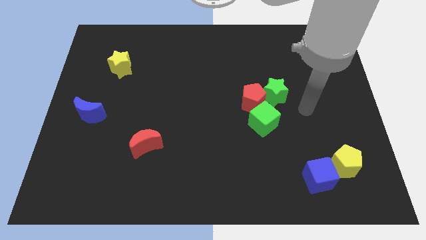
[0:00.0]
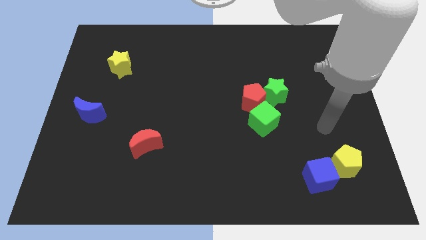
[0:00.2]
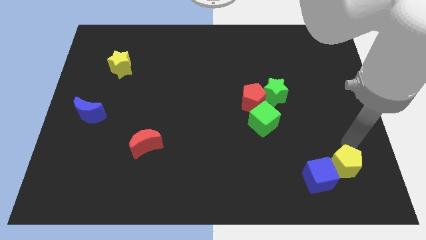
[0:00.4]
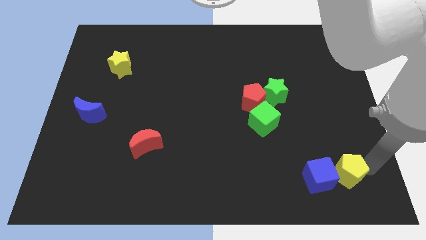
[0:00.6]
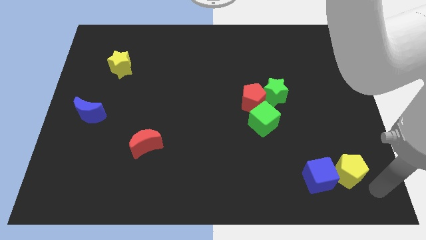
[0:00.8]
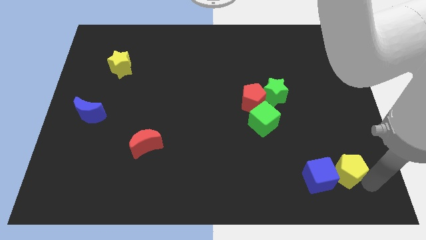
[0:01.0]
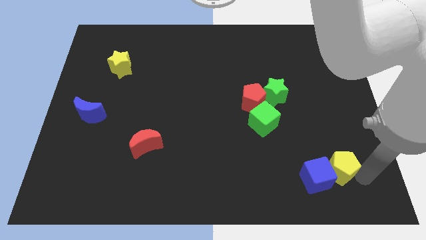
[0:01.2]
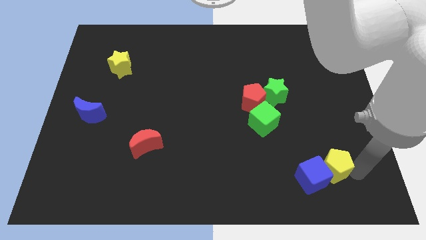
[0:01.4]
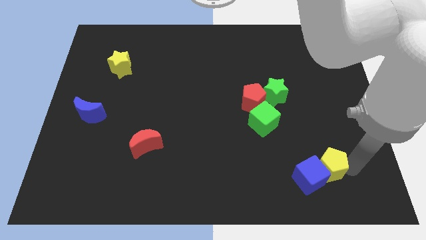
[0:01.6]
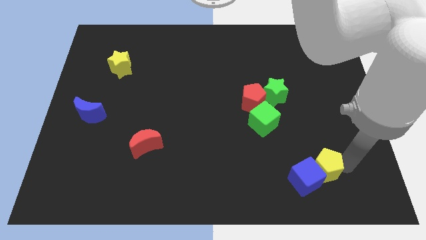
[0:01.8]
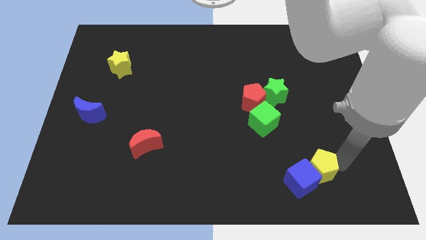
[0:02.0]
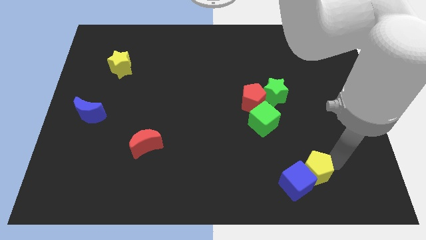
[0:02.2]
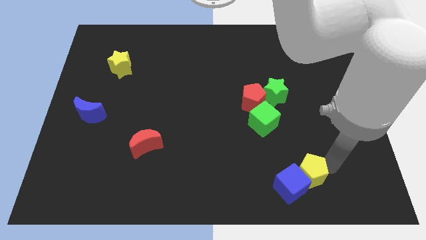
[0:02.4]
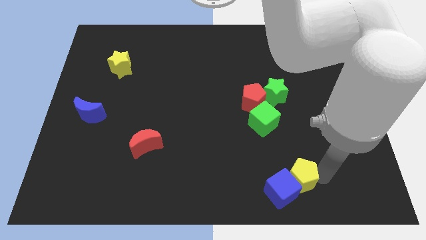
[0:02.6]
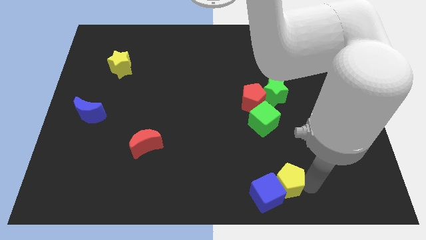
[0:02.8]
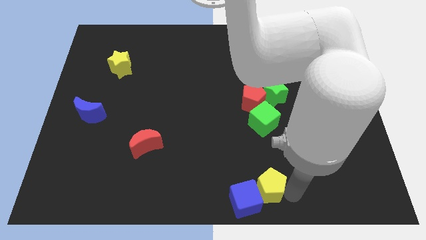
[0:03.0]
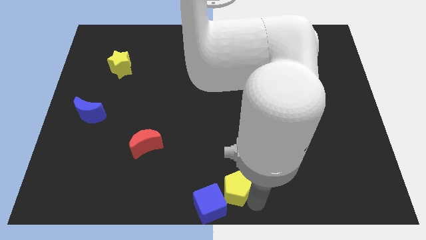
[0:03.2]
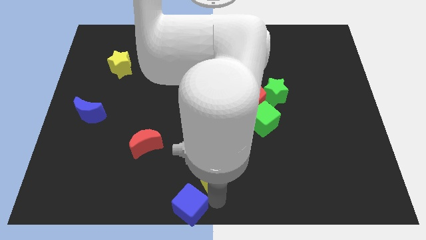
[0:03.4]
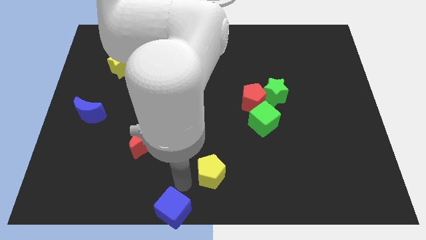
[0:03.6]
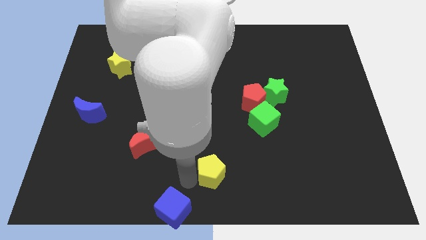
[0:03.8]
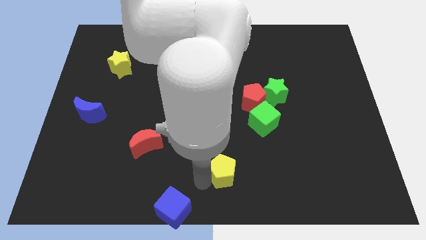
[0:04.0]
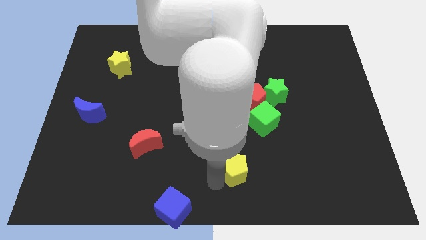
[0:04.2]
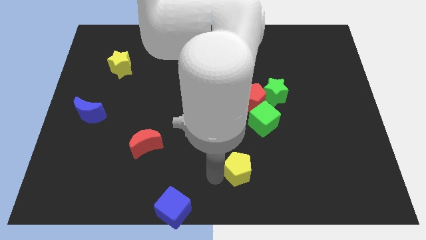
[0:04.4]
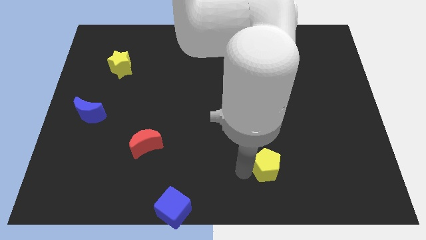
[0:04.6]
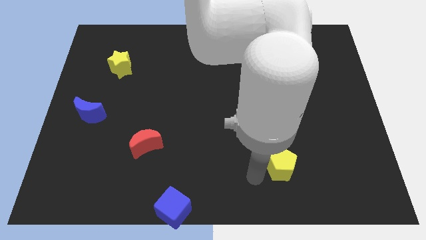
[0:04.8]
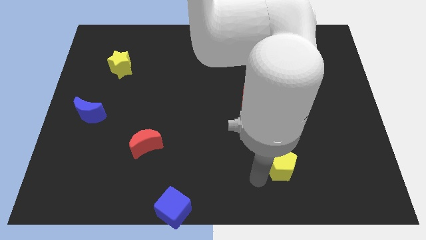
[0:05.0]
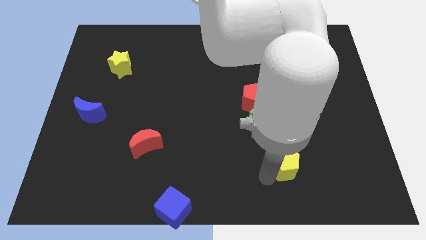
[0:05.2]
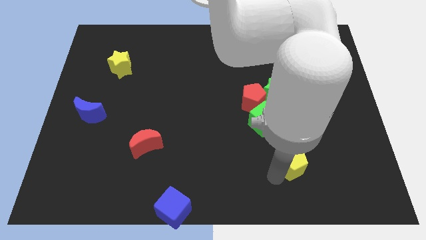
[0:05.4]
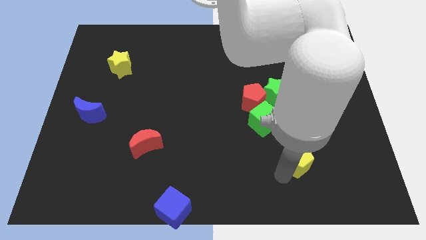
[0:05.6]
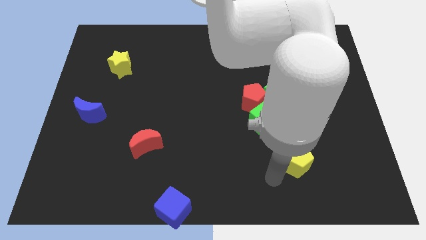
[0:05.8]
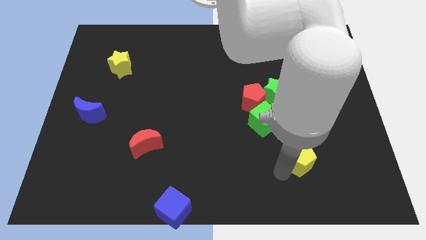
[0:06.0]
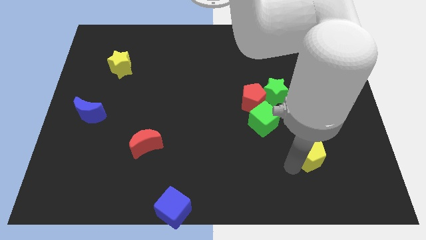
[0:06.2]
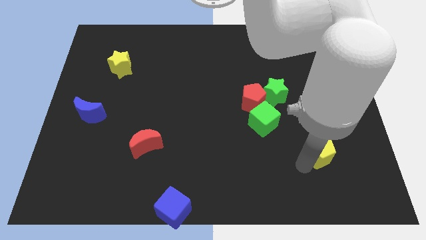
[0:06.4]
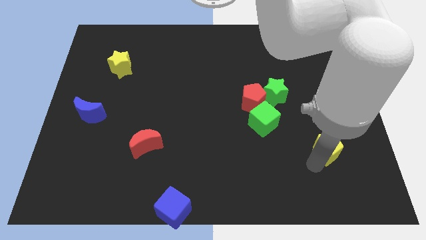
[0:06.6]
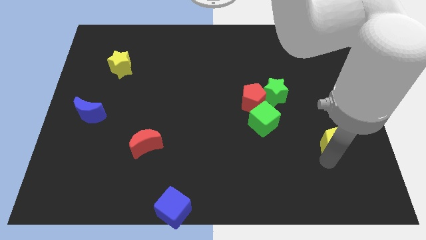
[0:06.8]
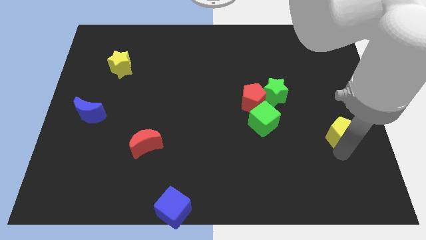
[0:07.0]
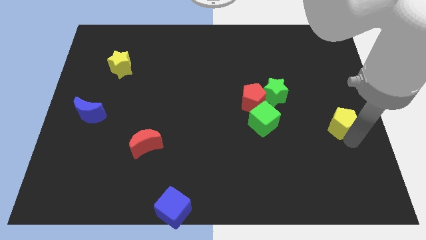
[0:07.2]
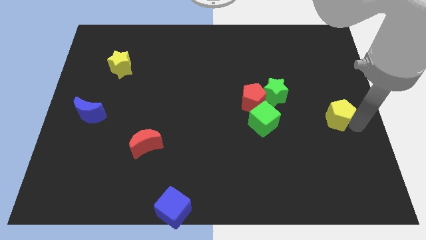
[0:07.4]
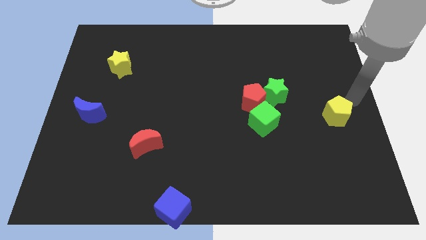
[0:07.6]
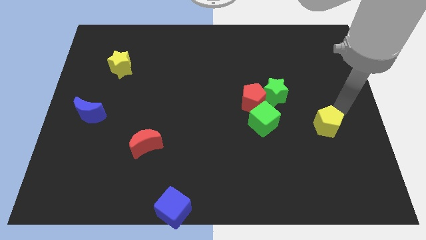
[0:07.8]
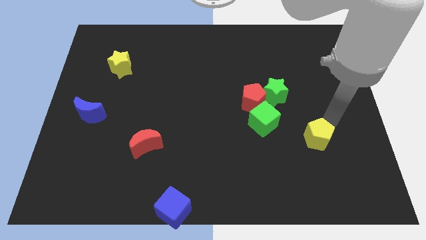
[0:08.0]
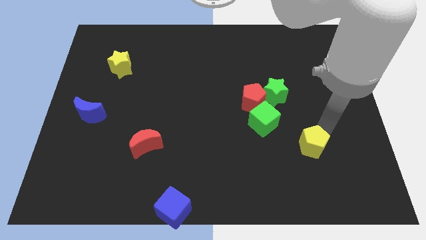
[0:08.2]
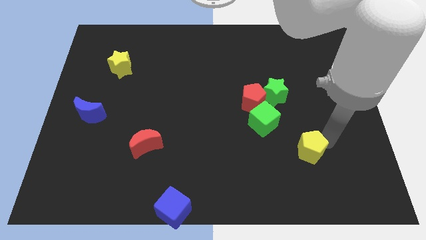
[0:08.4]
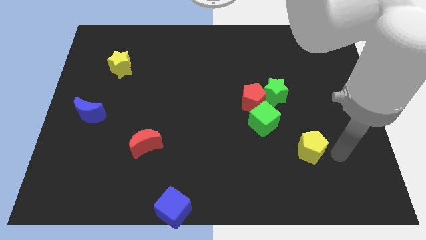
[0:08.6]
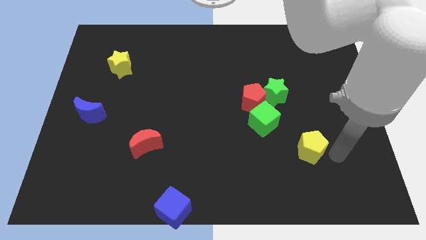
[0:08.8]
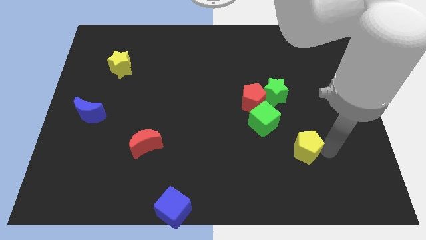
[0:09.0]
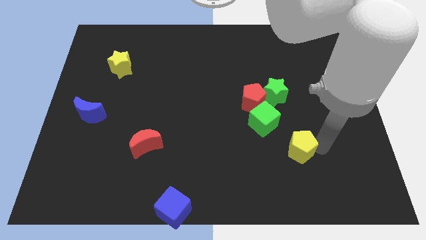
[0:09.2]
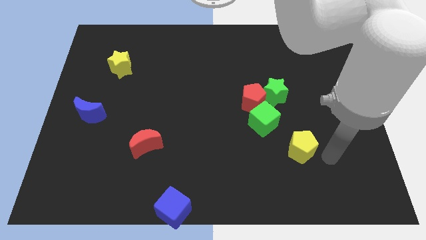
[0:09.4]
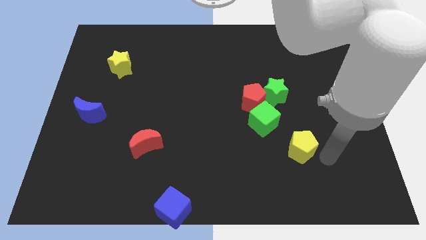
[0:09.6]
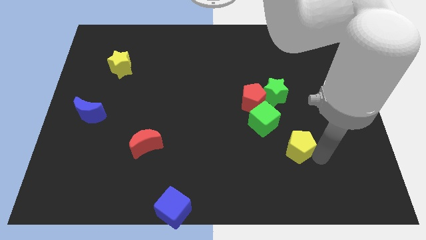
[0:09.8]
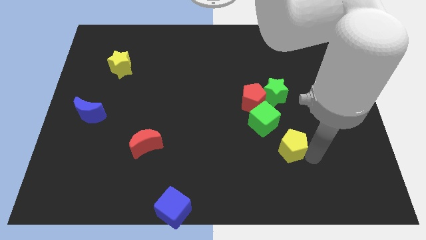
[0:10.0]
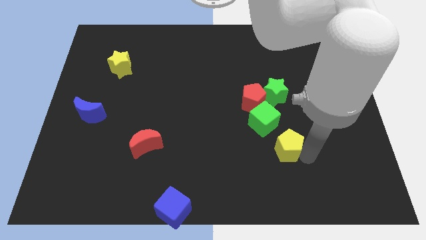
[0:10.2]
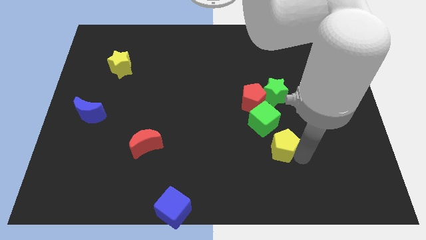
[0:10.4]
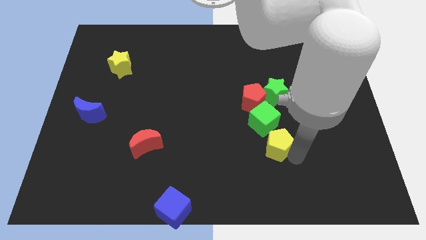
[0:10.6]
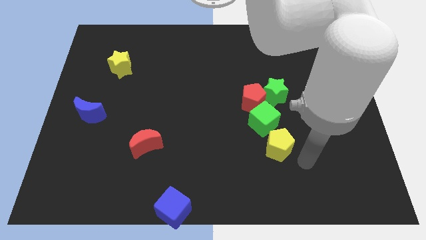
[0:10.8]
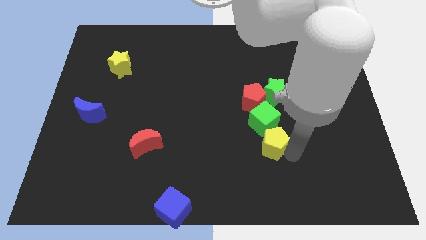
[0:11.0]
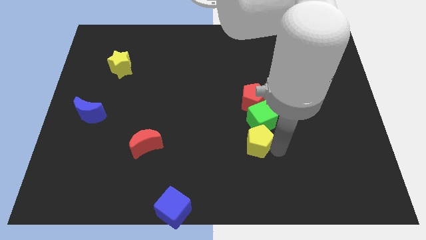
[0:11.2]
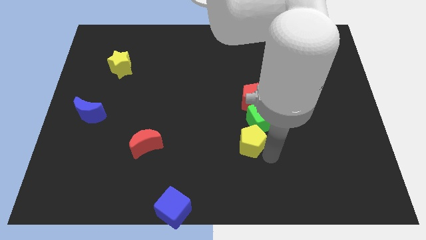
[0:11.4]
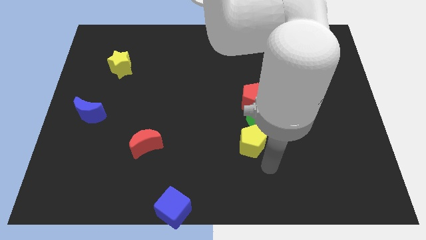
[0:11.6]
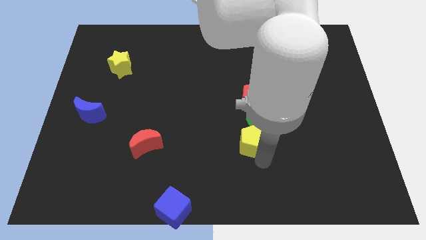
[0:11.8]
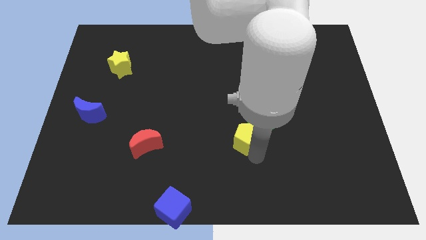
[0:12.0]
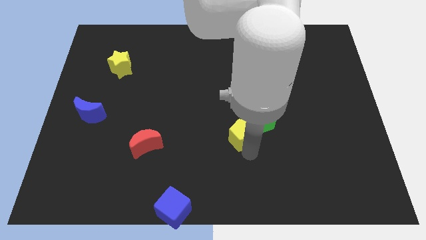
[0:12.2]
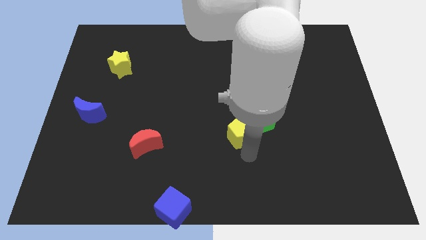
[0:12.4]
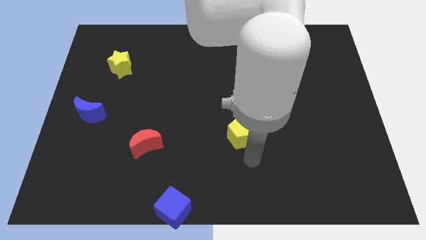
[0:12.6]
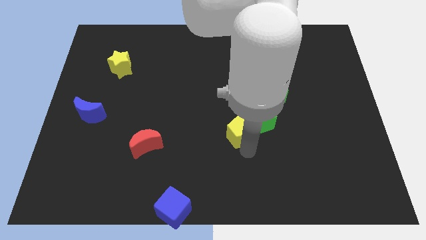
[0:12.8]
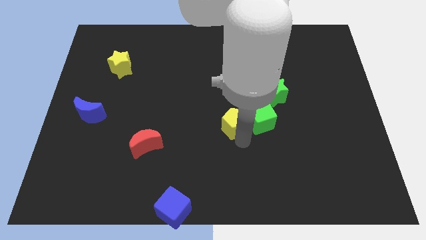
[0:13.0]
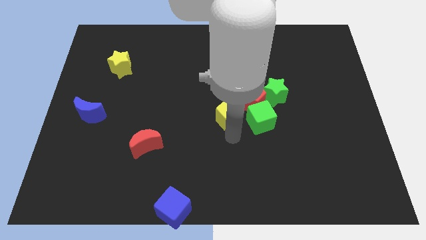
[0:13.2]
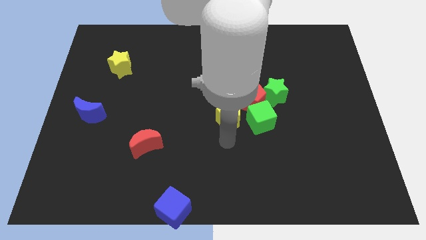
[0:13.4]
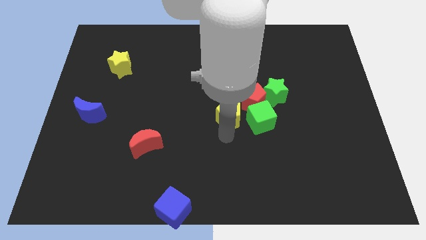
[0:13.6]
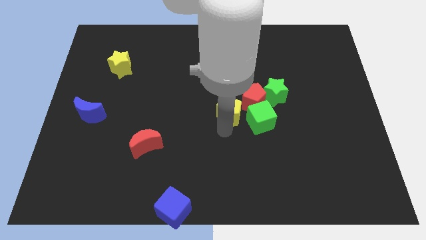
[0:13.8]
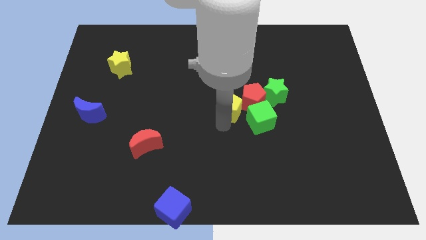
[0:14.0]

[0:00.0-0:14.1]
push the yellow pentagon just left of the green star
